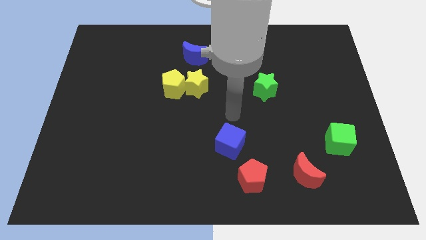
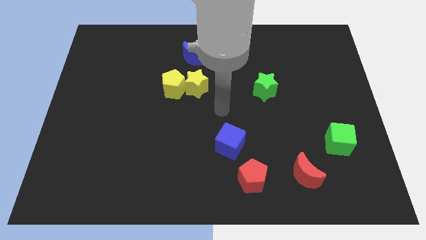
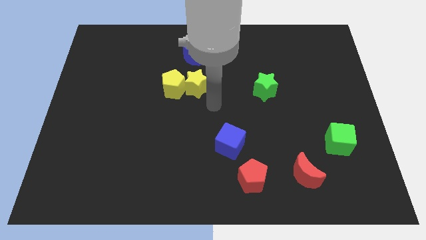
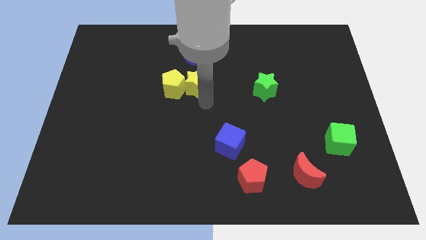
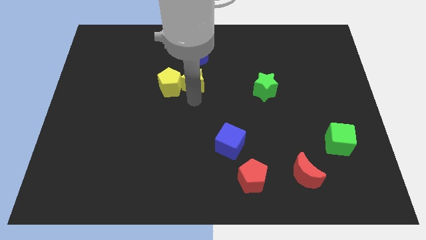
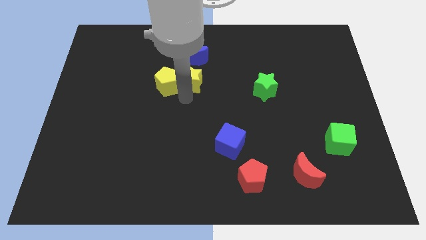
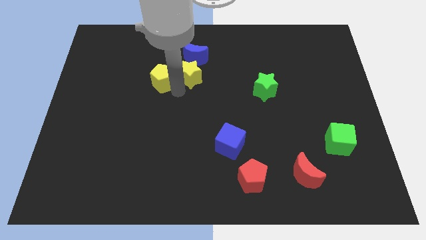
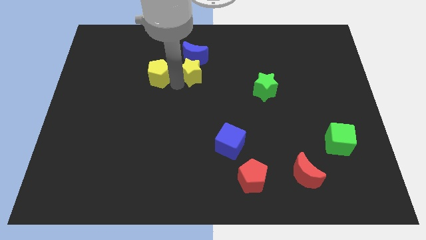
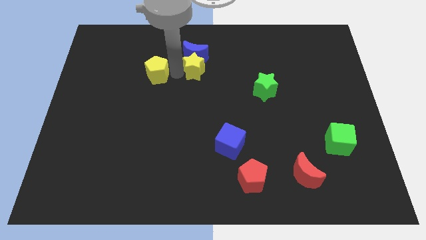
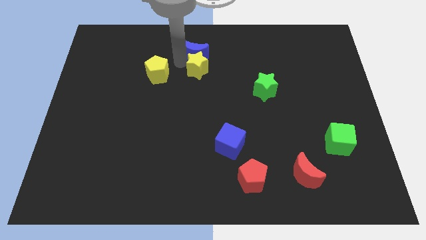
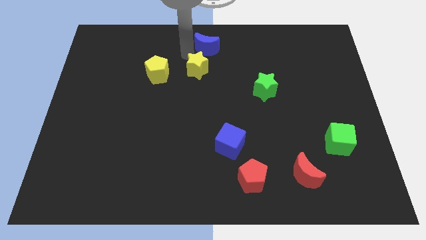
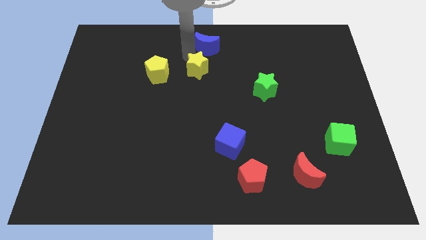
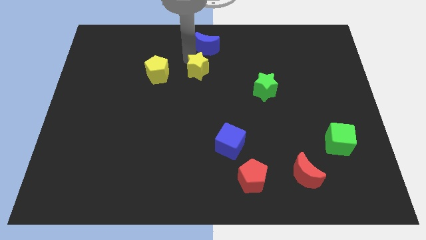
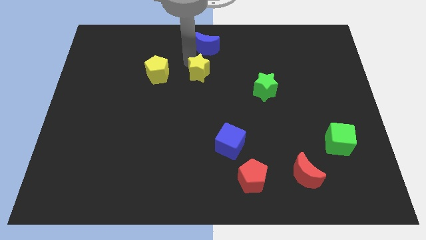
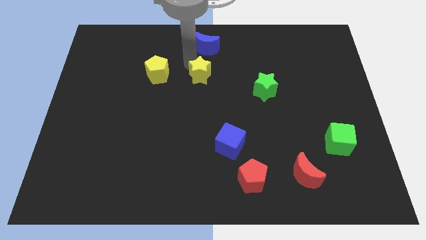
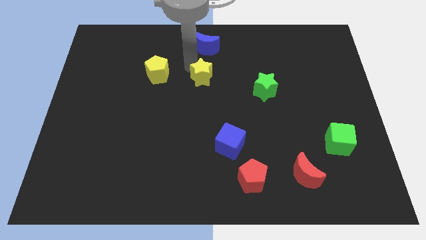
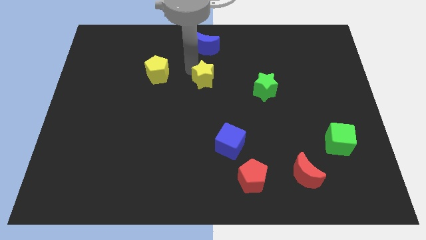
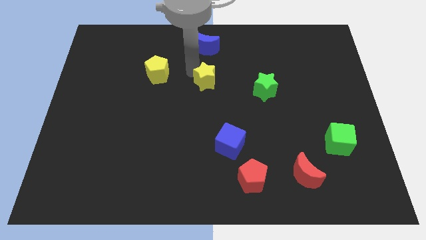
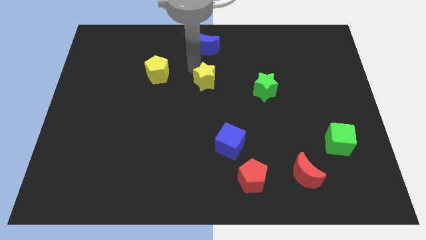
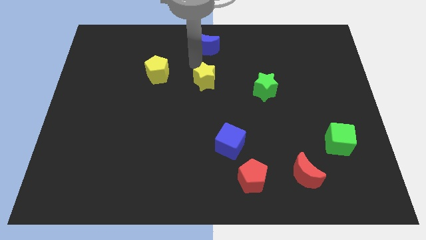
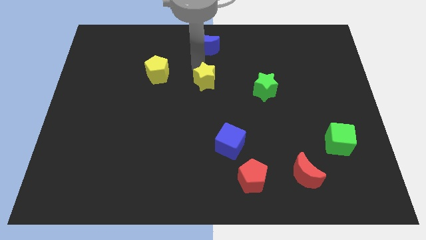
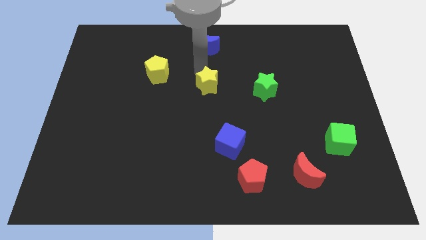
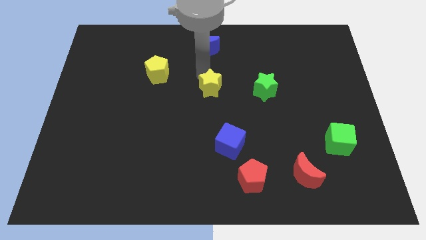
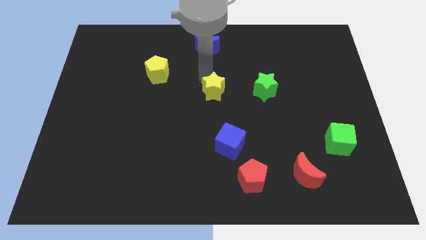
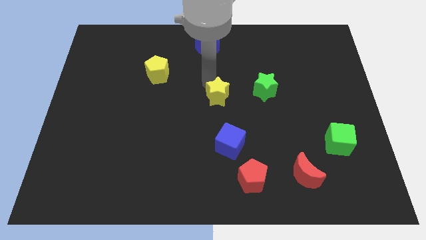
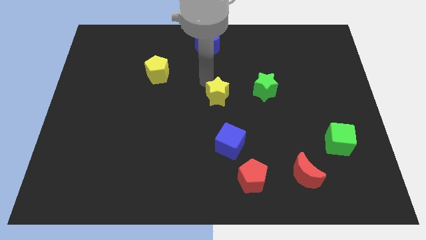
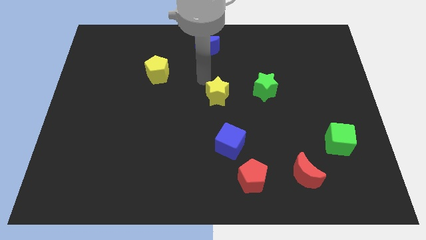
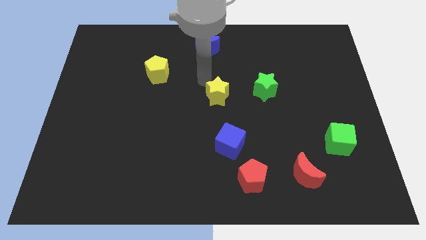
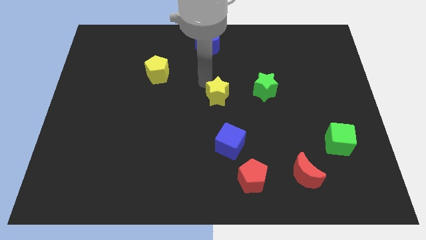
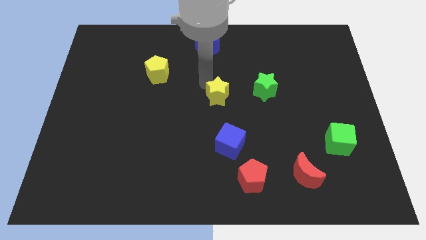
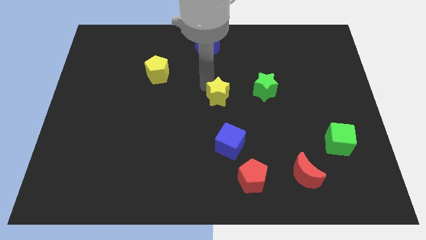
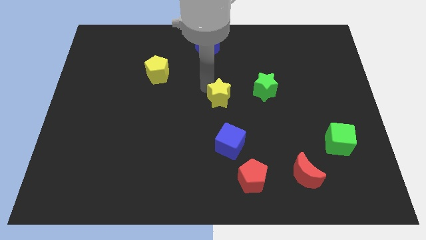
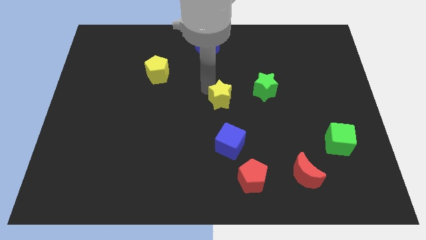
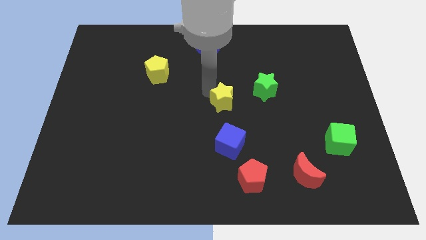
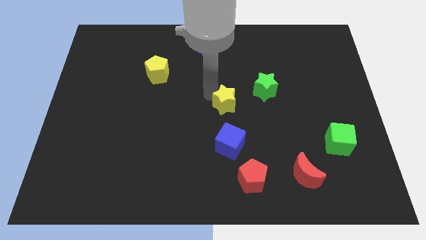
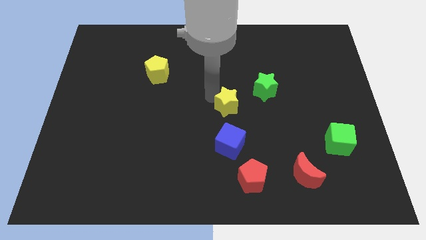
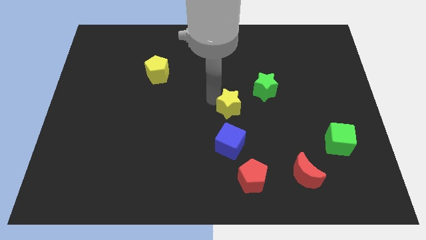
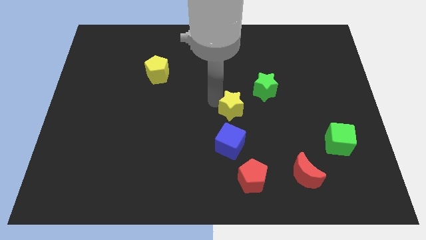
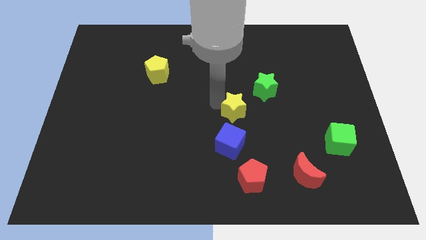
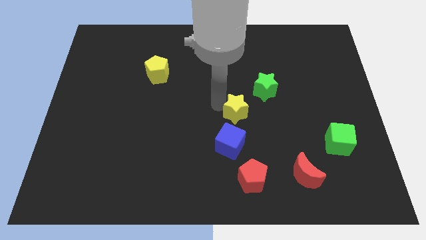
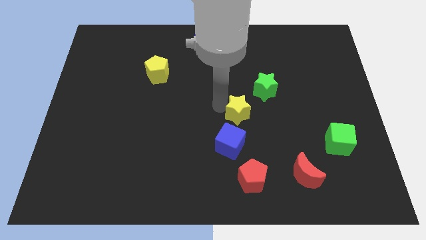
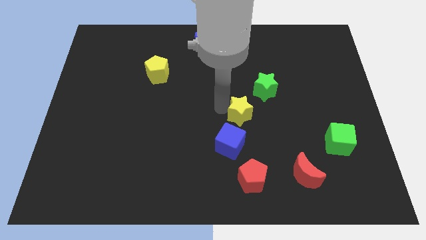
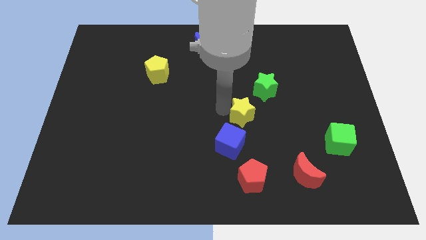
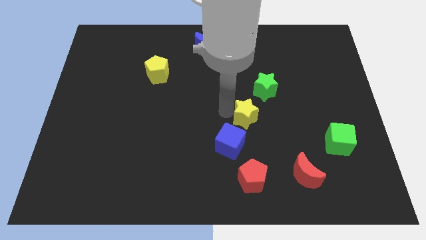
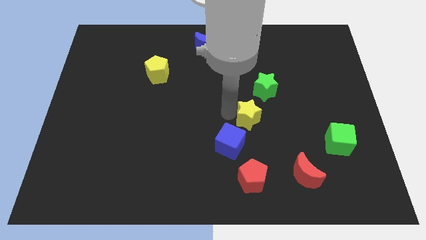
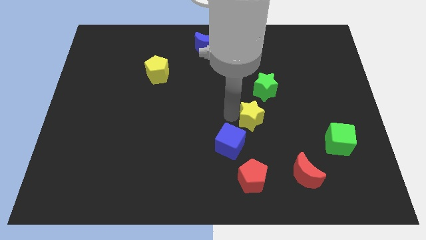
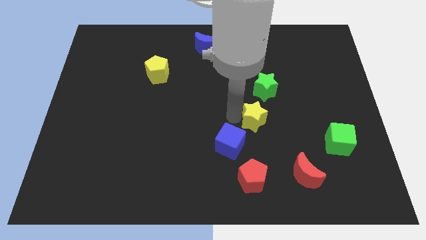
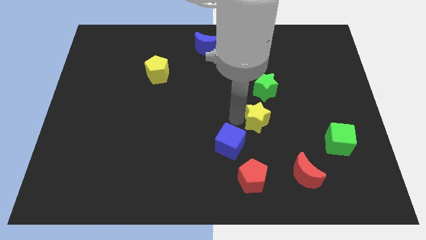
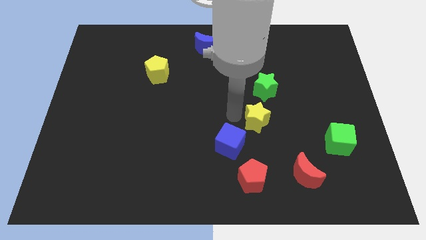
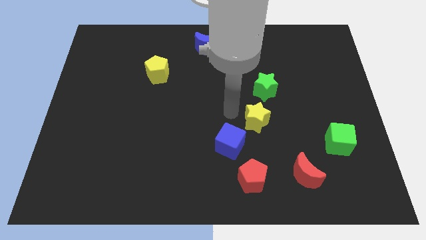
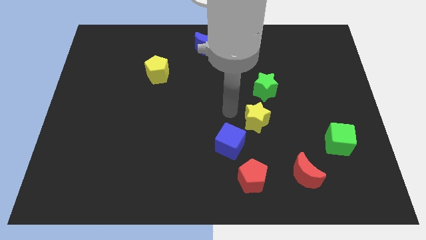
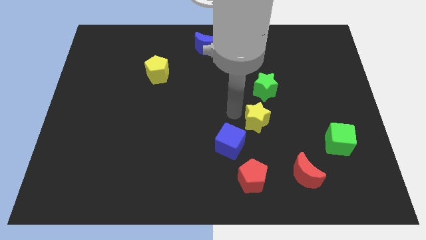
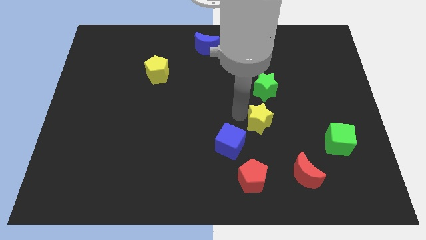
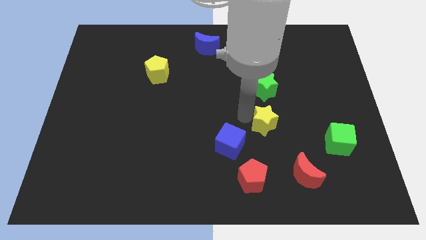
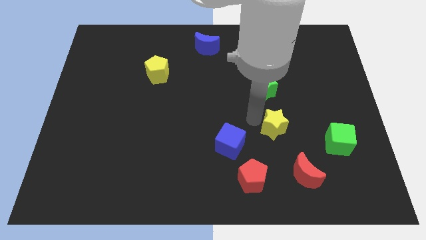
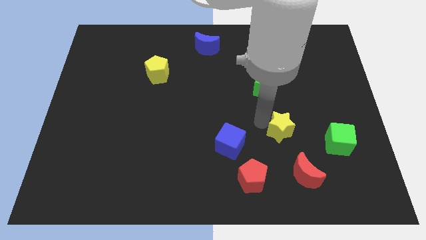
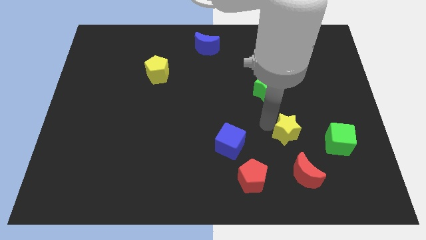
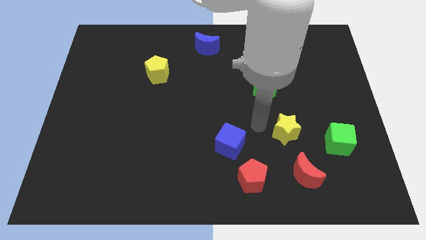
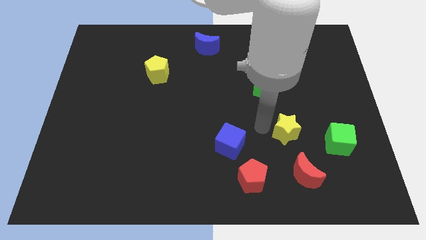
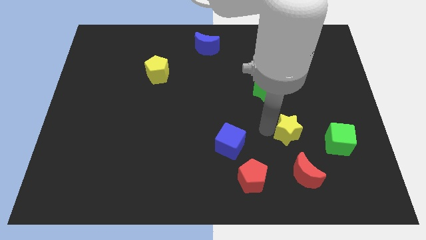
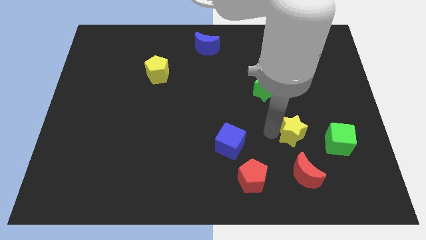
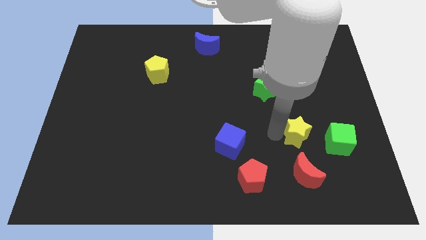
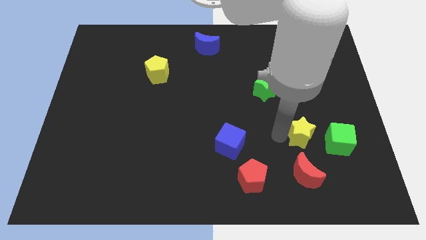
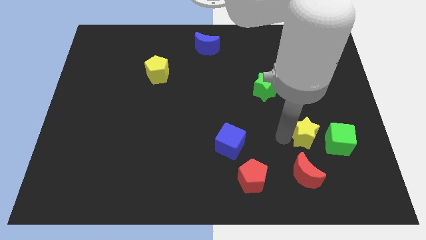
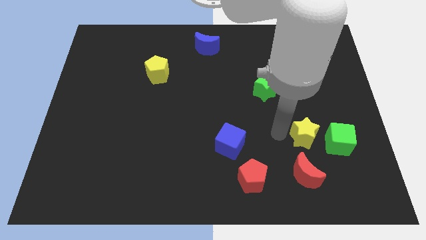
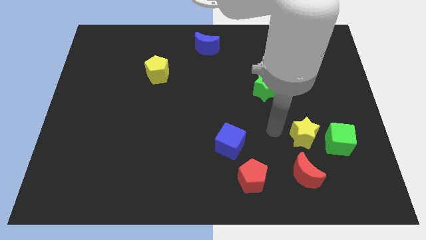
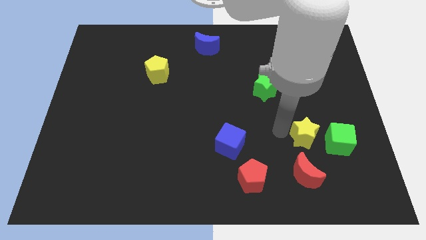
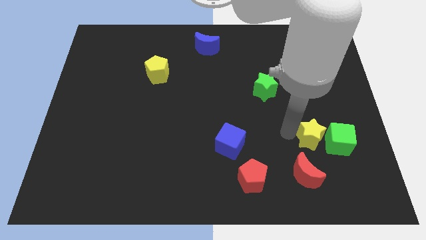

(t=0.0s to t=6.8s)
push the yellow star close to the green cube
